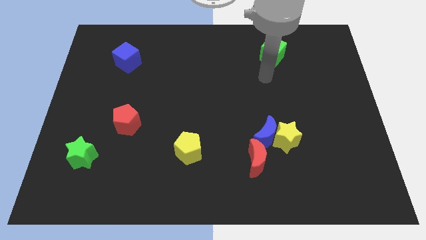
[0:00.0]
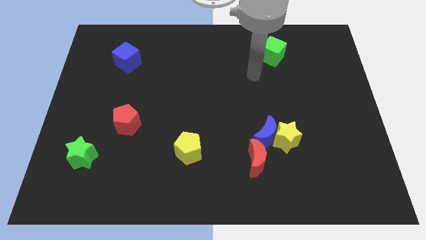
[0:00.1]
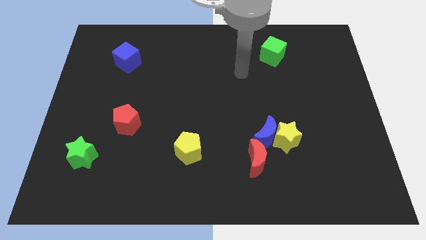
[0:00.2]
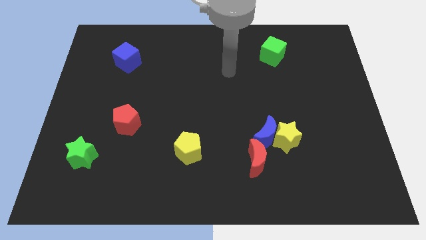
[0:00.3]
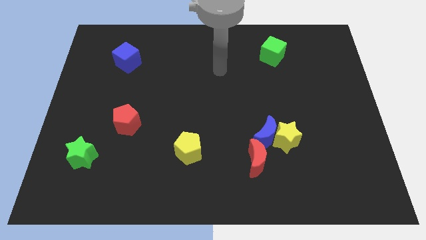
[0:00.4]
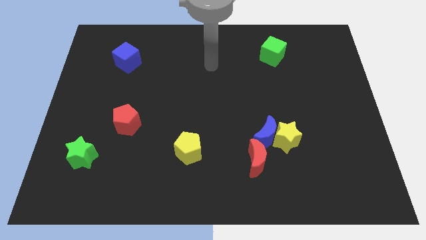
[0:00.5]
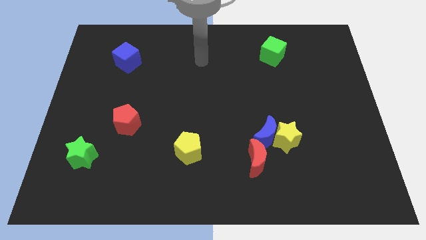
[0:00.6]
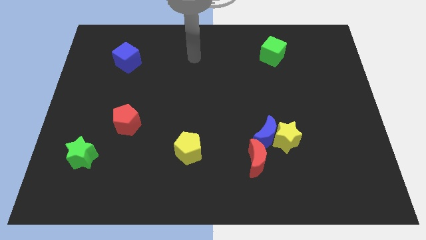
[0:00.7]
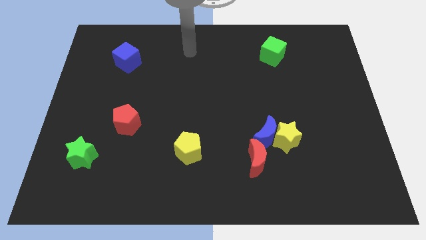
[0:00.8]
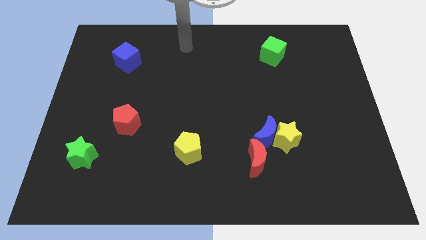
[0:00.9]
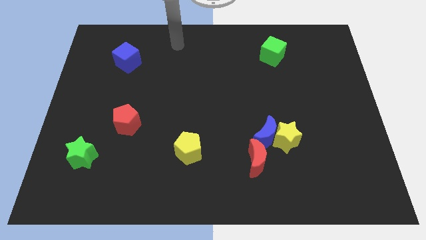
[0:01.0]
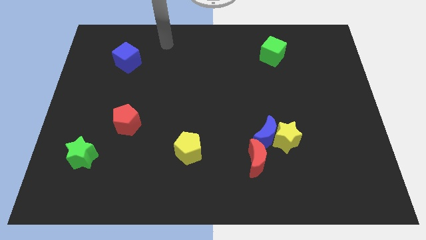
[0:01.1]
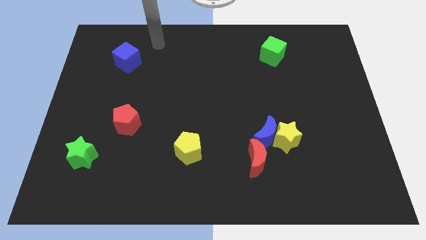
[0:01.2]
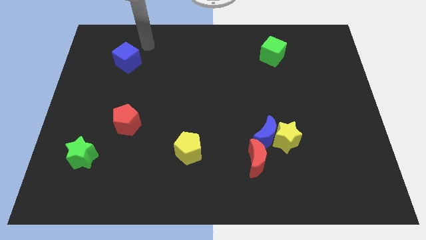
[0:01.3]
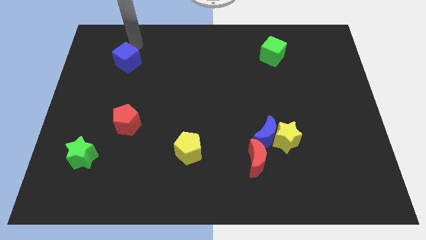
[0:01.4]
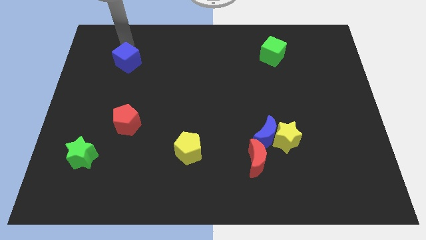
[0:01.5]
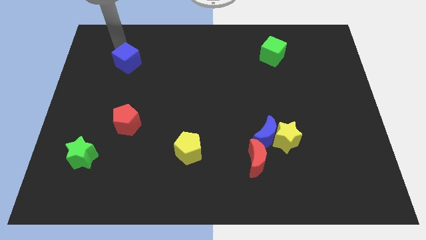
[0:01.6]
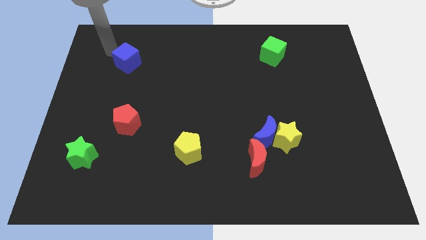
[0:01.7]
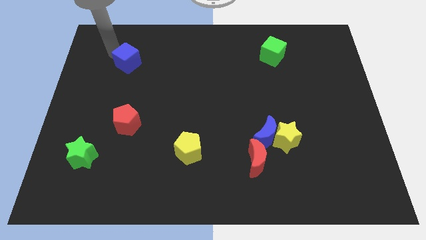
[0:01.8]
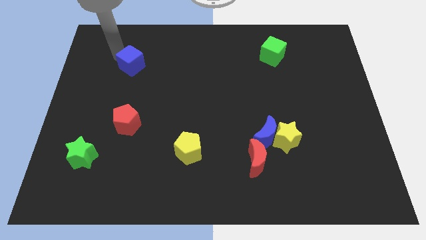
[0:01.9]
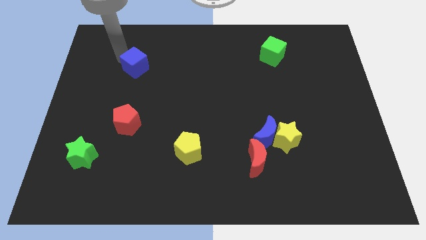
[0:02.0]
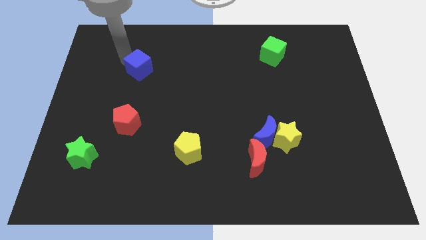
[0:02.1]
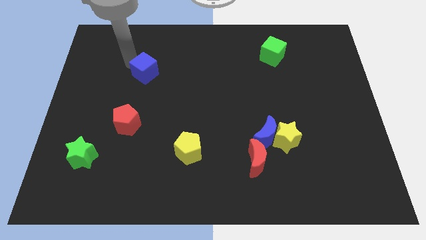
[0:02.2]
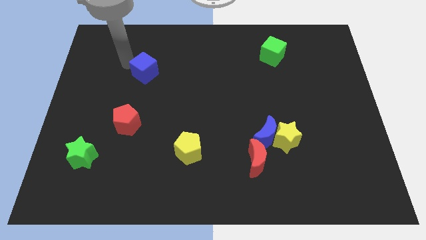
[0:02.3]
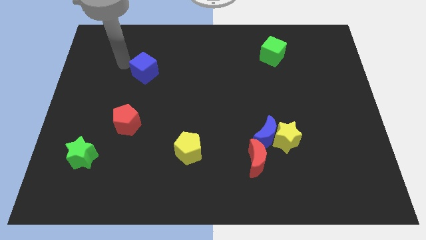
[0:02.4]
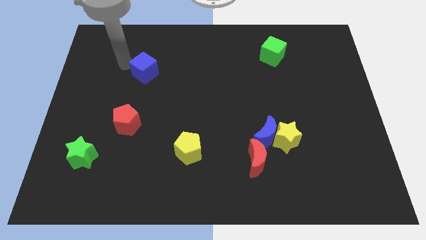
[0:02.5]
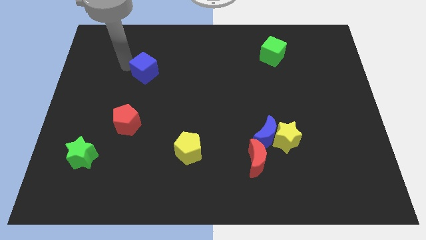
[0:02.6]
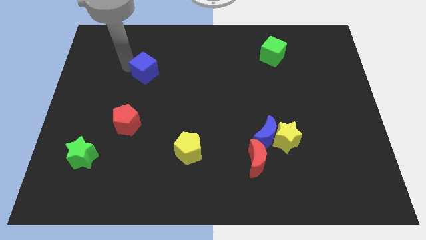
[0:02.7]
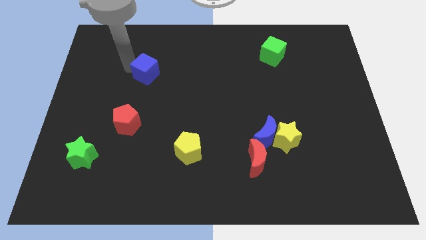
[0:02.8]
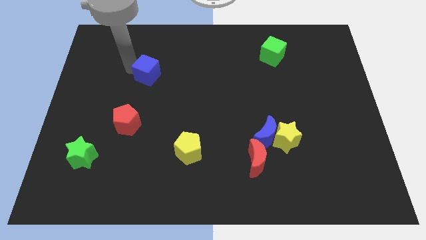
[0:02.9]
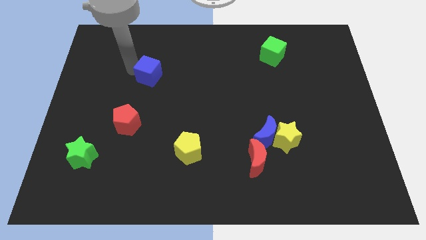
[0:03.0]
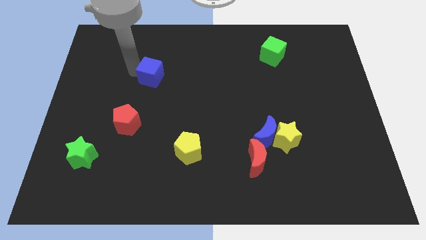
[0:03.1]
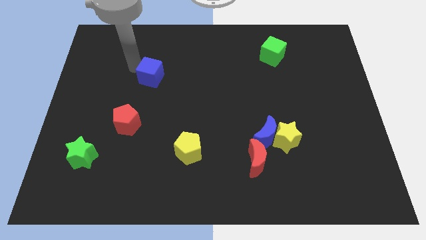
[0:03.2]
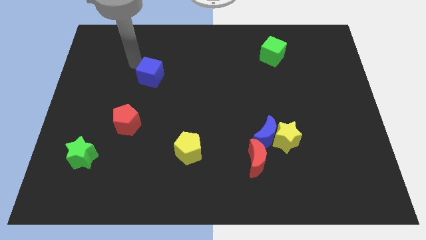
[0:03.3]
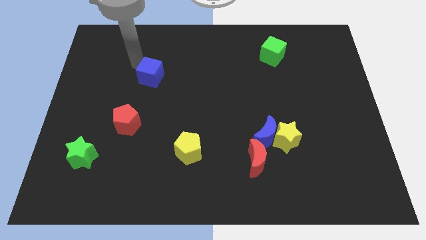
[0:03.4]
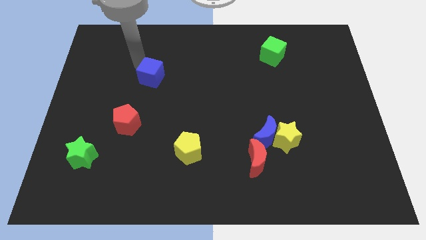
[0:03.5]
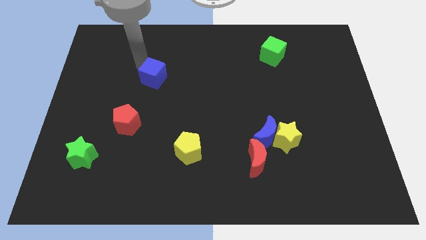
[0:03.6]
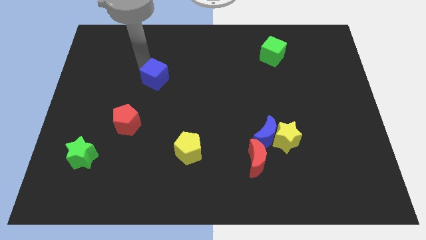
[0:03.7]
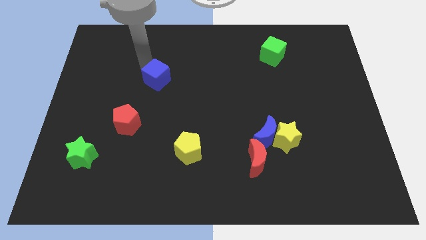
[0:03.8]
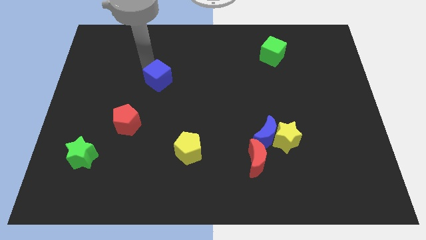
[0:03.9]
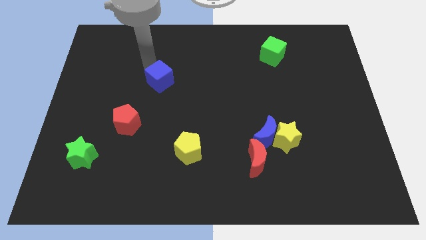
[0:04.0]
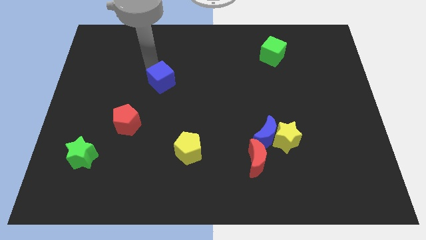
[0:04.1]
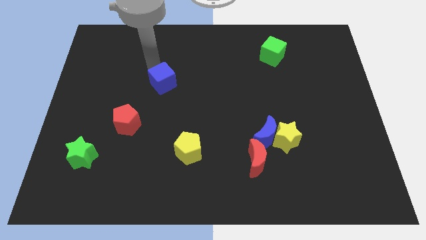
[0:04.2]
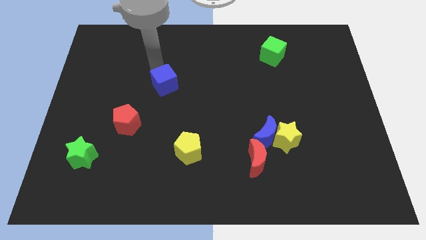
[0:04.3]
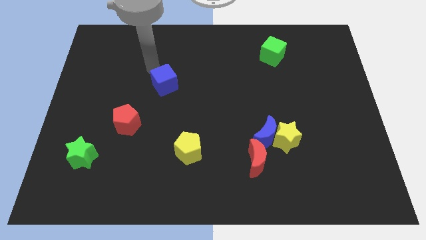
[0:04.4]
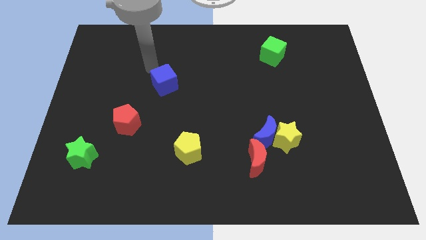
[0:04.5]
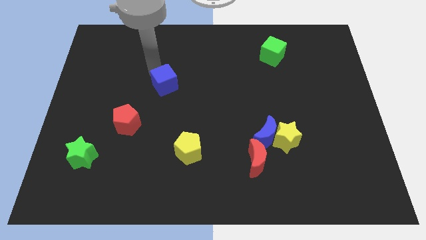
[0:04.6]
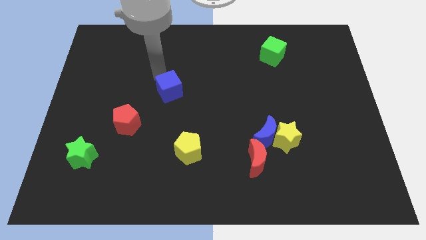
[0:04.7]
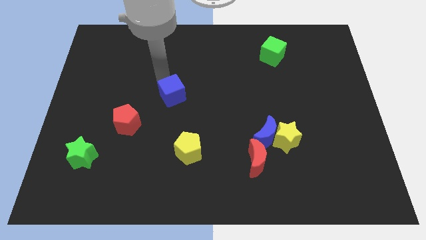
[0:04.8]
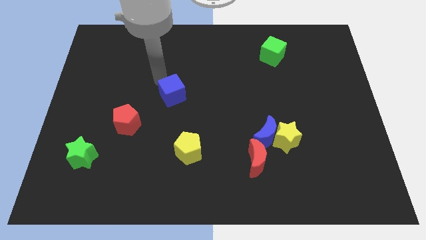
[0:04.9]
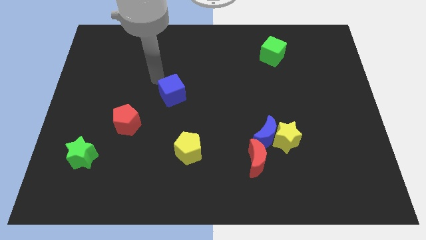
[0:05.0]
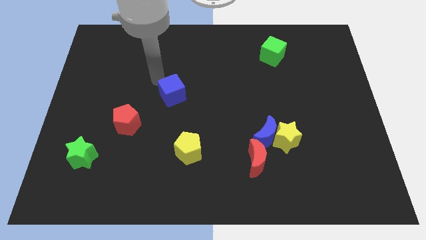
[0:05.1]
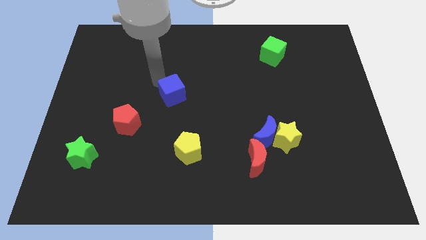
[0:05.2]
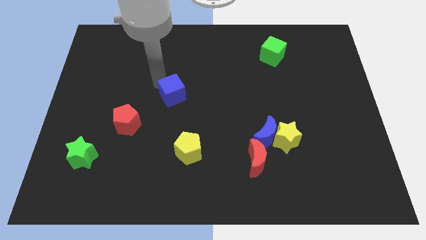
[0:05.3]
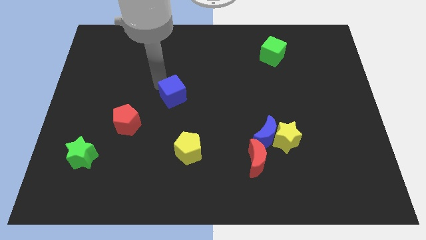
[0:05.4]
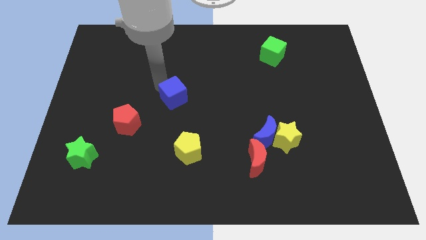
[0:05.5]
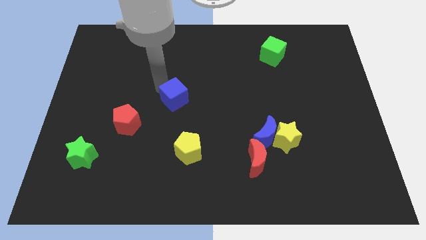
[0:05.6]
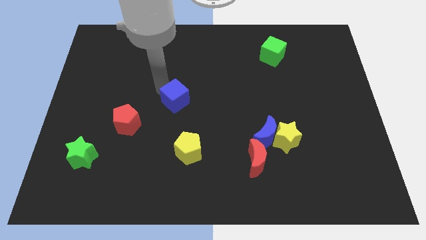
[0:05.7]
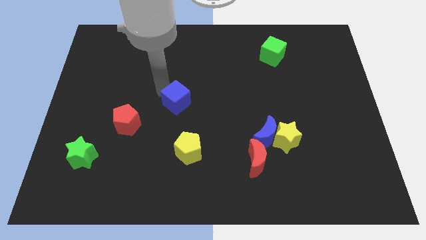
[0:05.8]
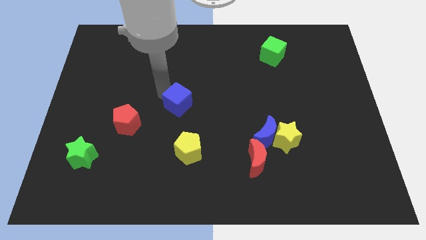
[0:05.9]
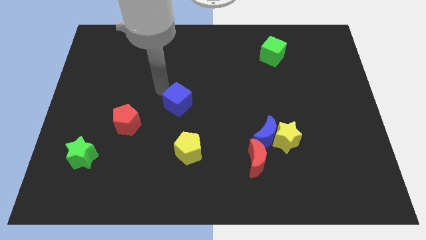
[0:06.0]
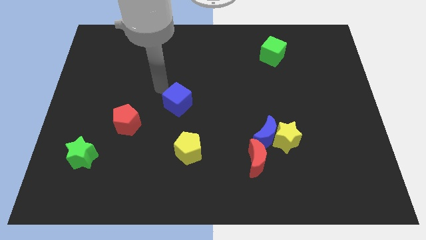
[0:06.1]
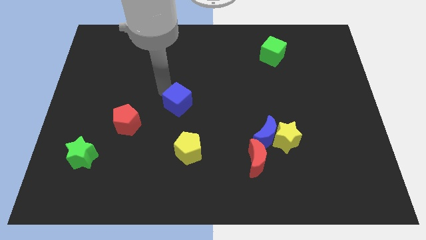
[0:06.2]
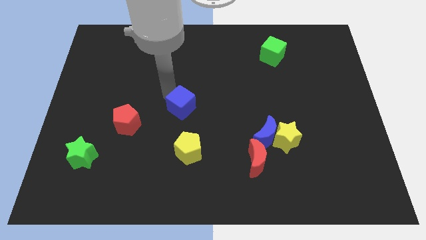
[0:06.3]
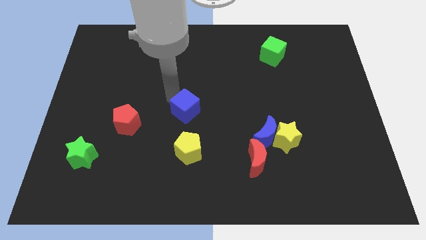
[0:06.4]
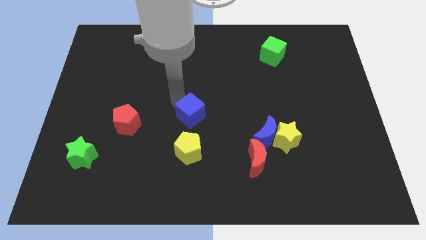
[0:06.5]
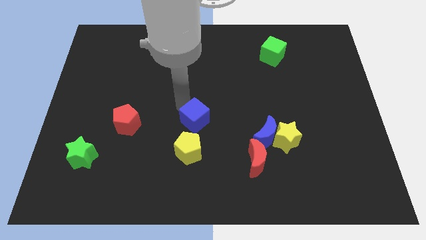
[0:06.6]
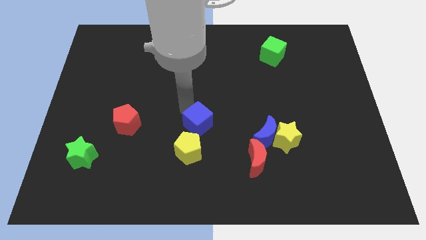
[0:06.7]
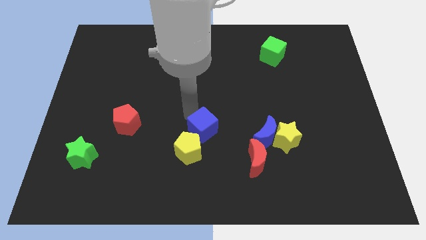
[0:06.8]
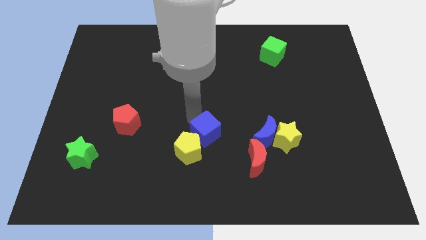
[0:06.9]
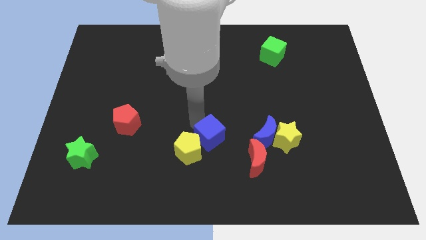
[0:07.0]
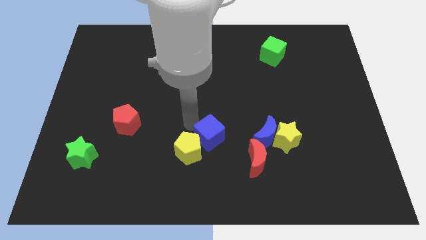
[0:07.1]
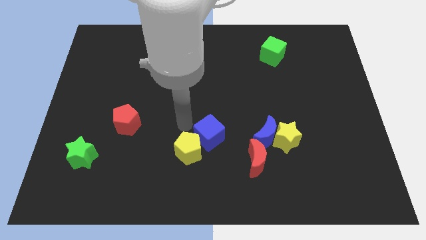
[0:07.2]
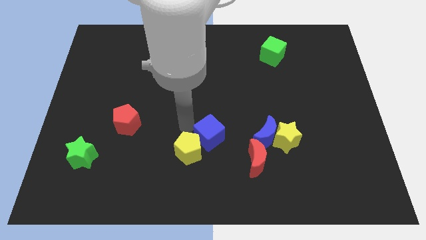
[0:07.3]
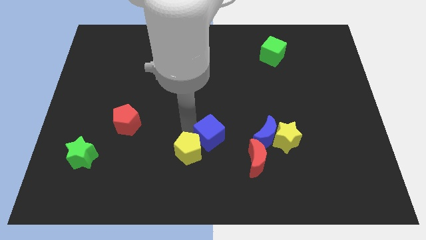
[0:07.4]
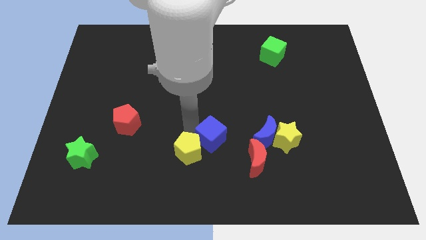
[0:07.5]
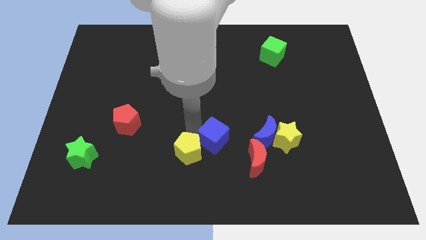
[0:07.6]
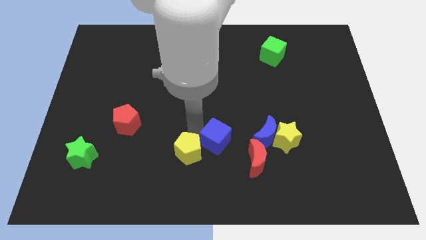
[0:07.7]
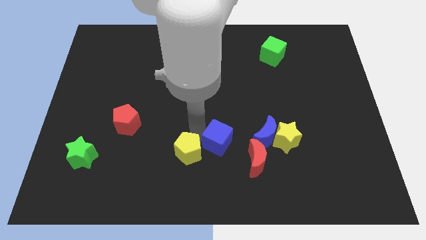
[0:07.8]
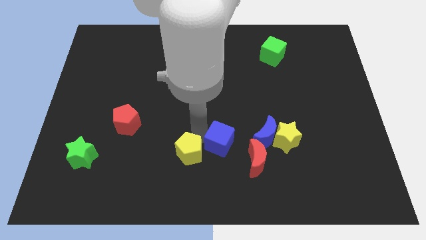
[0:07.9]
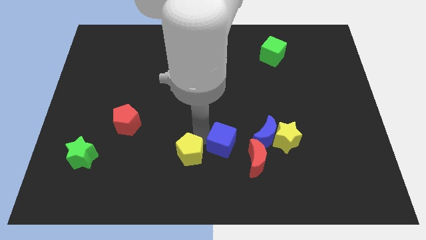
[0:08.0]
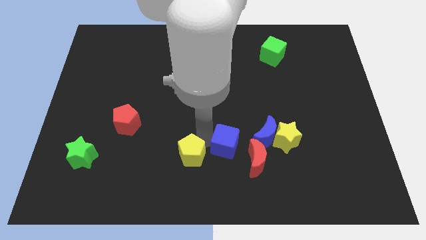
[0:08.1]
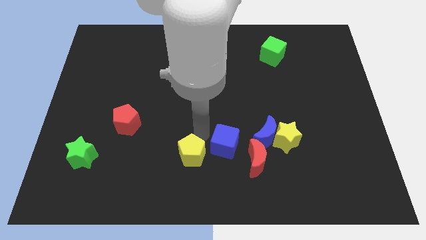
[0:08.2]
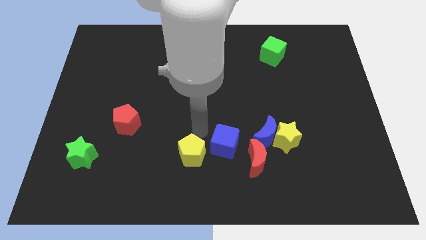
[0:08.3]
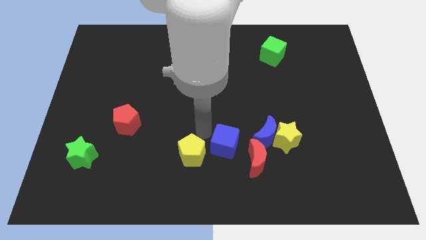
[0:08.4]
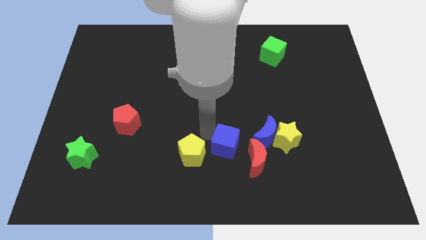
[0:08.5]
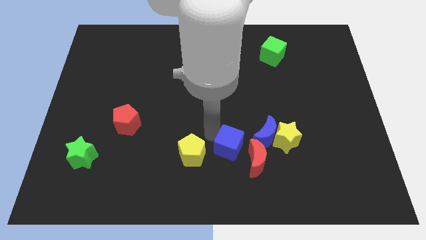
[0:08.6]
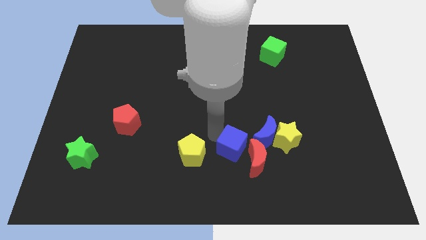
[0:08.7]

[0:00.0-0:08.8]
slide the blue cube to the red moon
